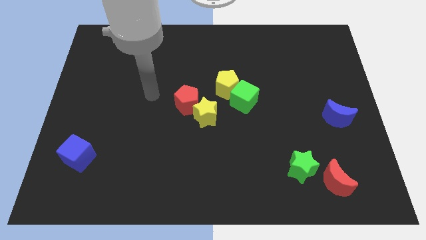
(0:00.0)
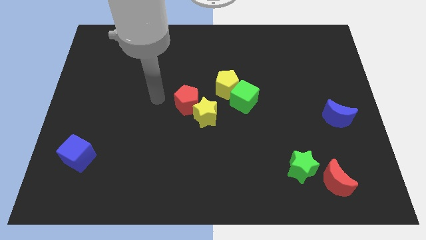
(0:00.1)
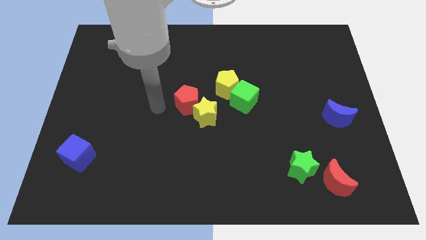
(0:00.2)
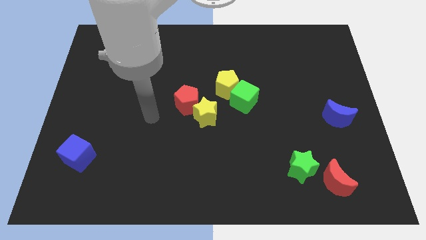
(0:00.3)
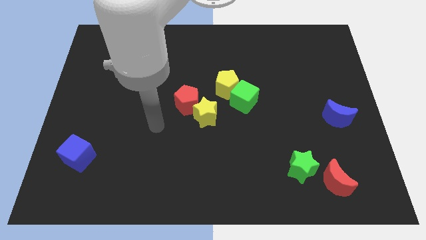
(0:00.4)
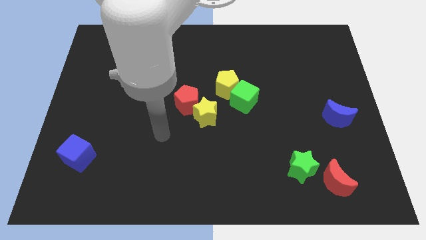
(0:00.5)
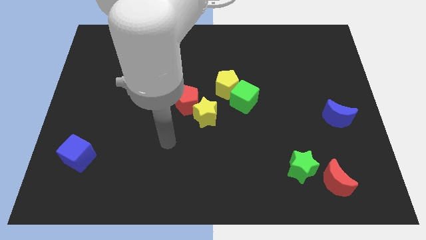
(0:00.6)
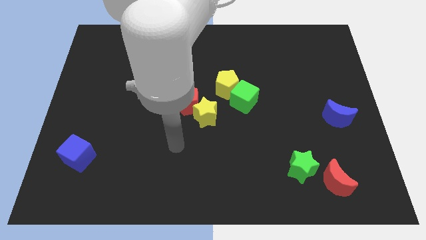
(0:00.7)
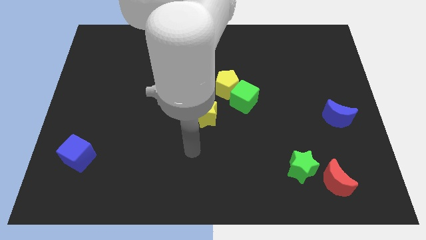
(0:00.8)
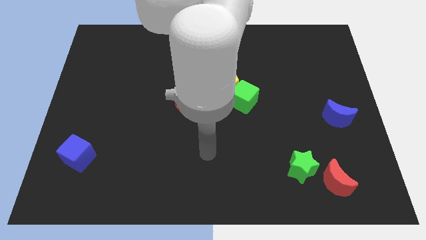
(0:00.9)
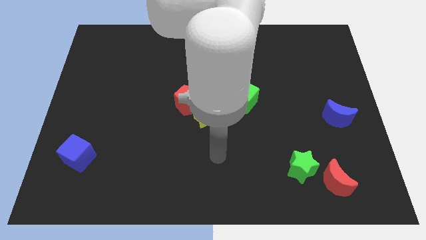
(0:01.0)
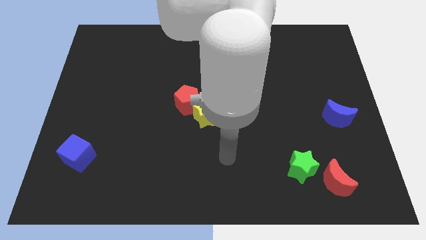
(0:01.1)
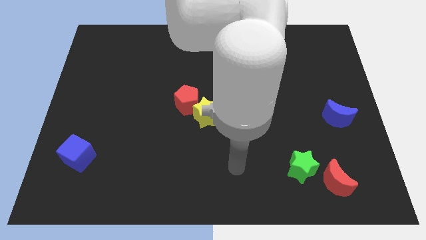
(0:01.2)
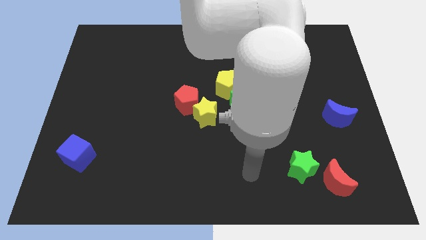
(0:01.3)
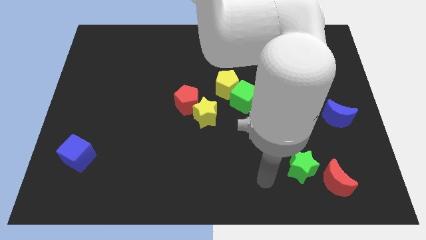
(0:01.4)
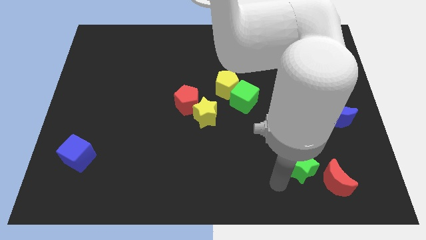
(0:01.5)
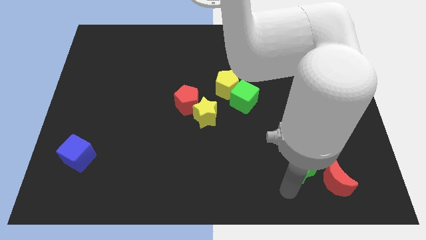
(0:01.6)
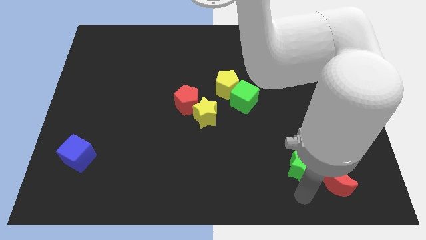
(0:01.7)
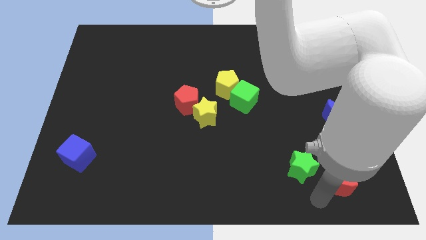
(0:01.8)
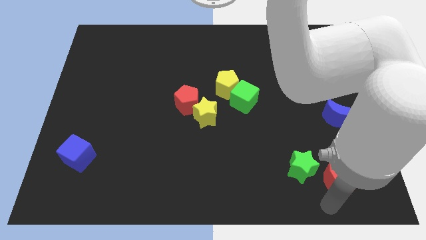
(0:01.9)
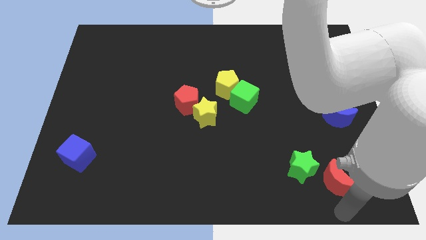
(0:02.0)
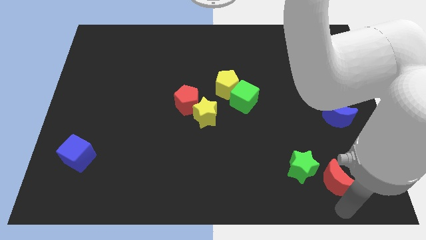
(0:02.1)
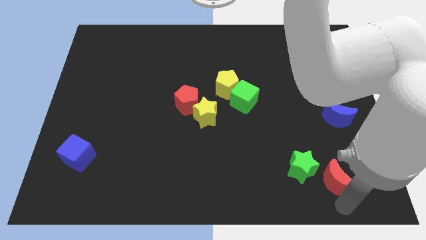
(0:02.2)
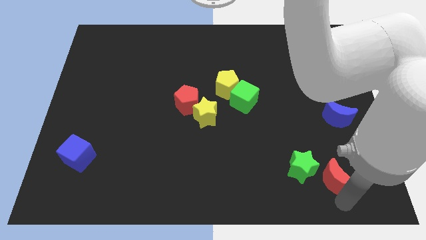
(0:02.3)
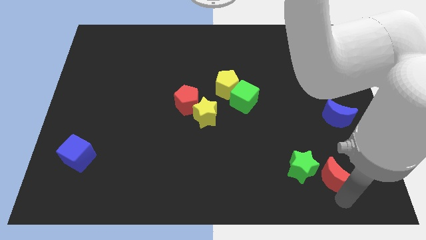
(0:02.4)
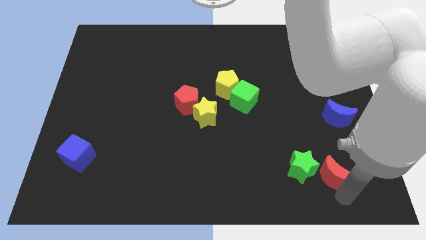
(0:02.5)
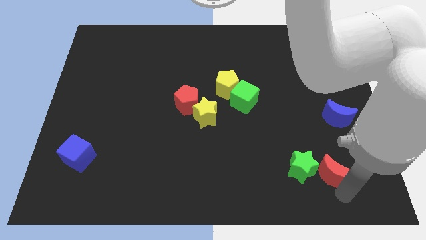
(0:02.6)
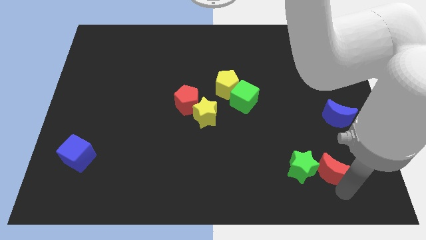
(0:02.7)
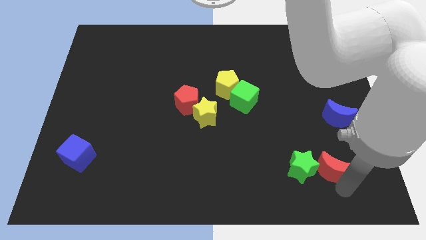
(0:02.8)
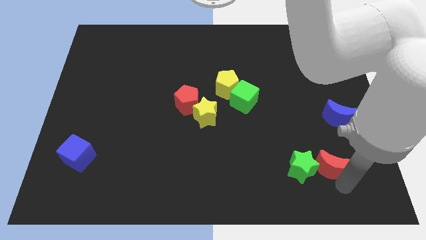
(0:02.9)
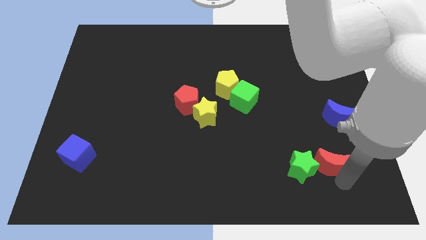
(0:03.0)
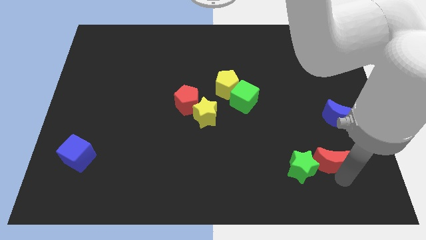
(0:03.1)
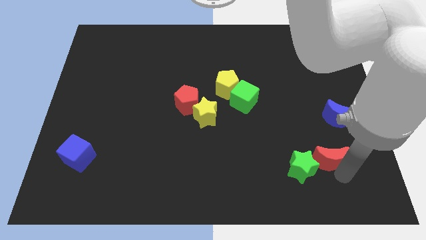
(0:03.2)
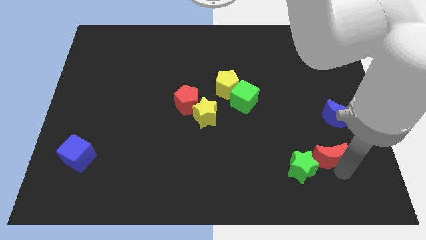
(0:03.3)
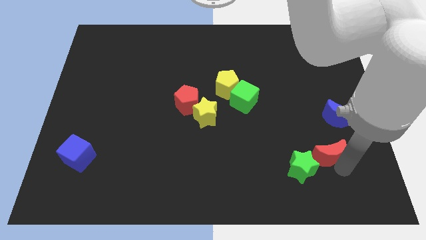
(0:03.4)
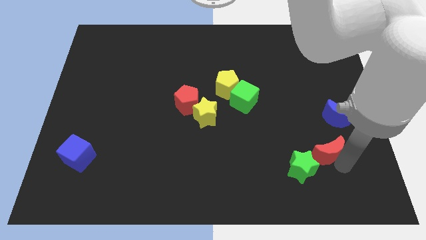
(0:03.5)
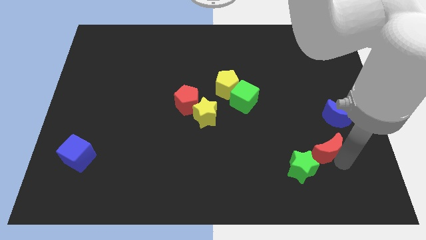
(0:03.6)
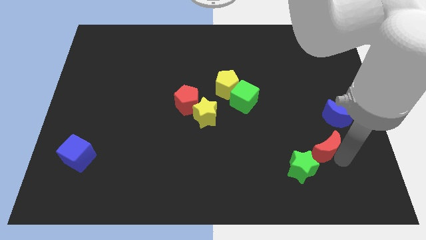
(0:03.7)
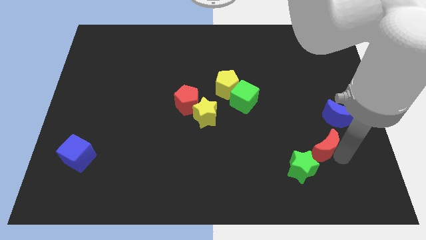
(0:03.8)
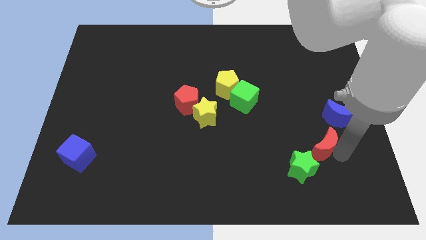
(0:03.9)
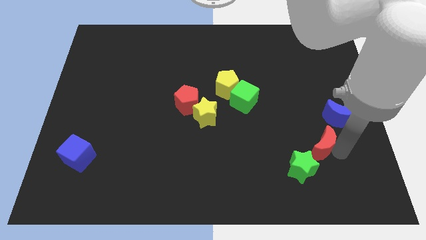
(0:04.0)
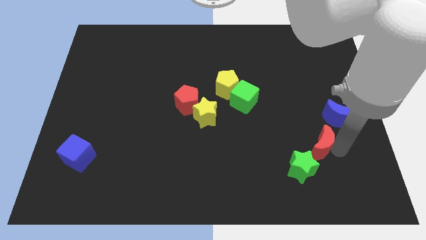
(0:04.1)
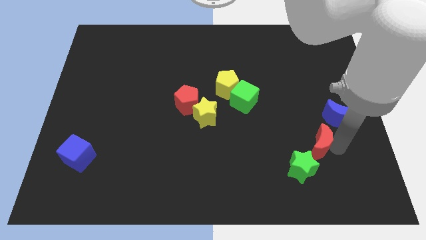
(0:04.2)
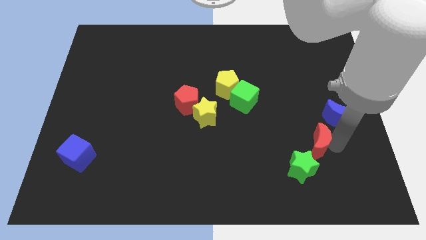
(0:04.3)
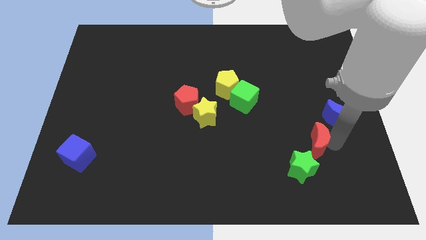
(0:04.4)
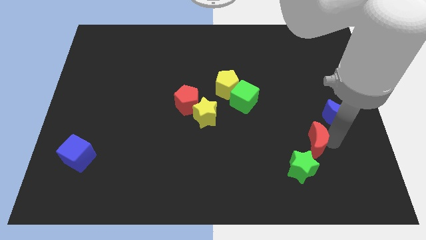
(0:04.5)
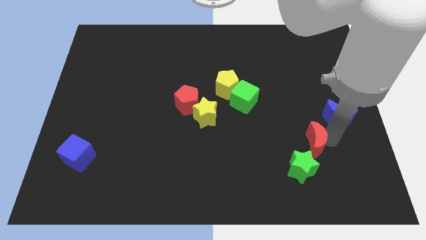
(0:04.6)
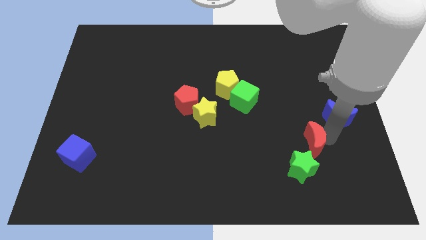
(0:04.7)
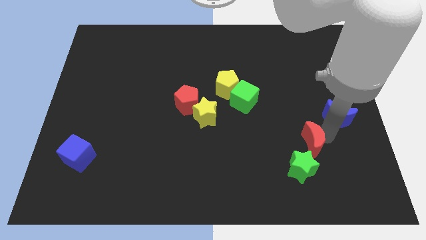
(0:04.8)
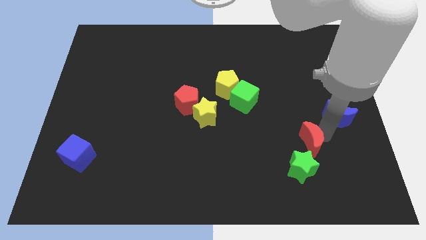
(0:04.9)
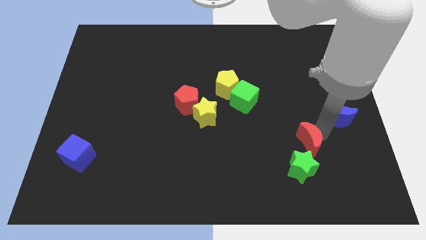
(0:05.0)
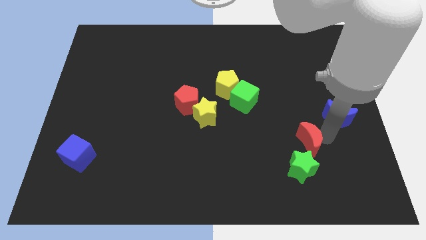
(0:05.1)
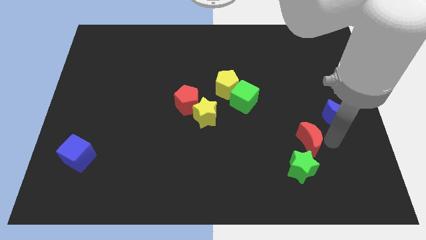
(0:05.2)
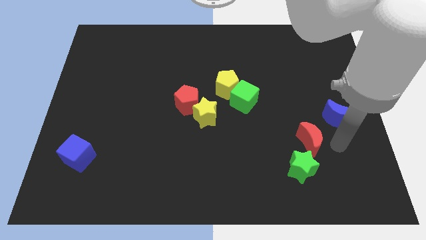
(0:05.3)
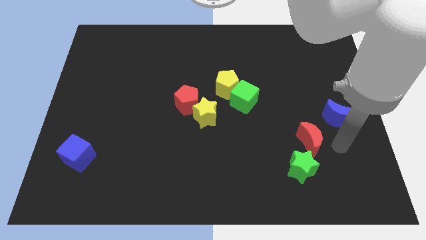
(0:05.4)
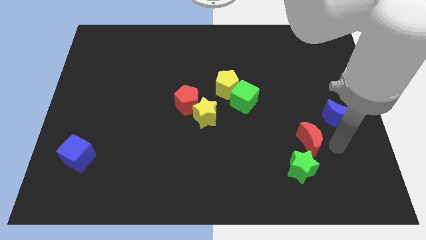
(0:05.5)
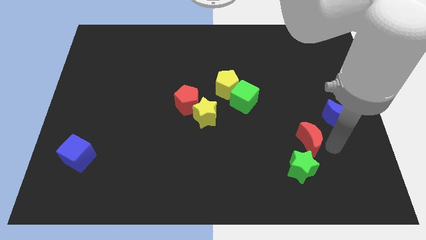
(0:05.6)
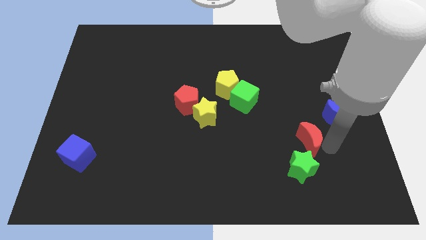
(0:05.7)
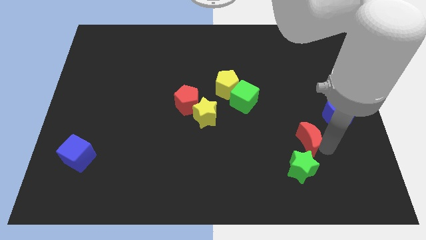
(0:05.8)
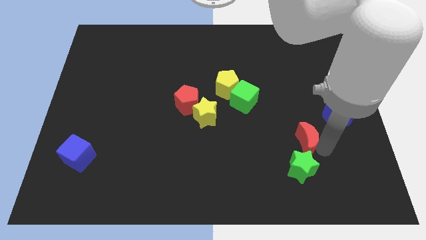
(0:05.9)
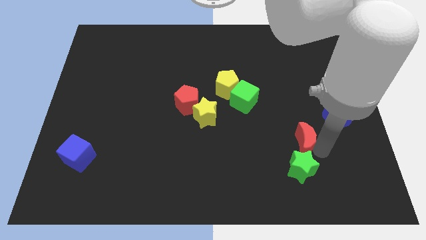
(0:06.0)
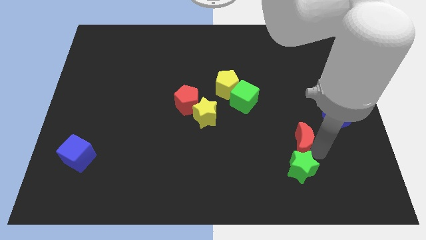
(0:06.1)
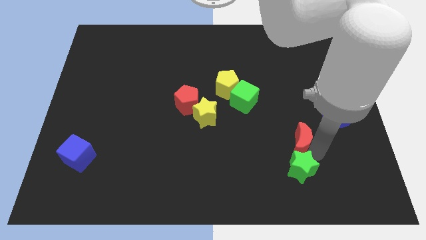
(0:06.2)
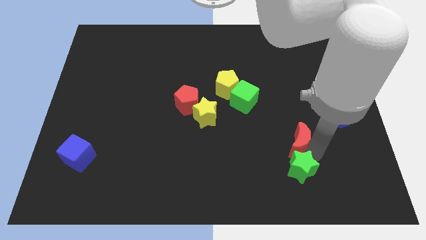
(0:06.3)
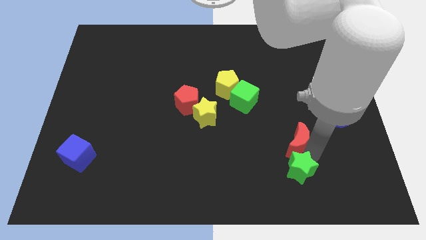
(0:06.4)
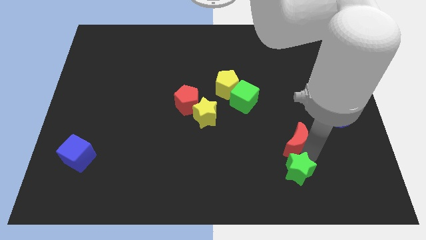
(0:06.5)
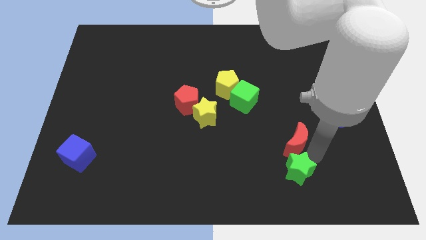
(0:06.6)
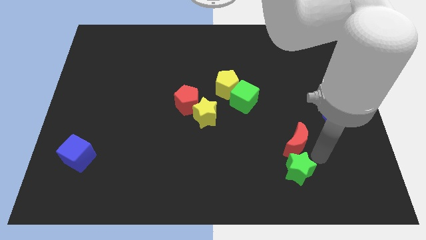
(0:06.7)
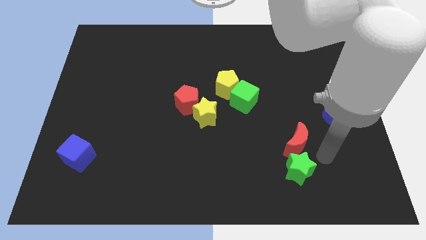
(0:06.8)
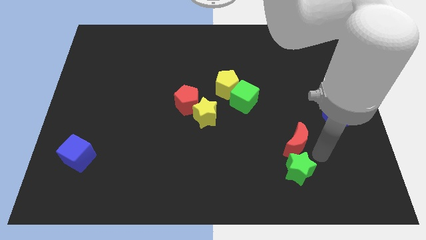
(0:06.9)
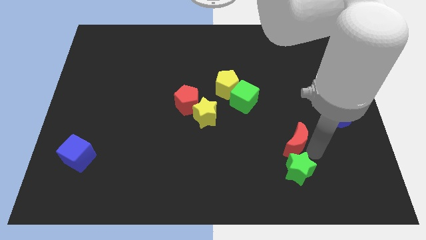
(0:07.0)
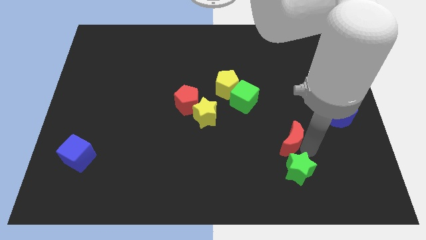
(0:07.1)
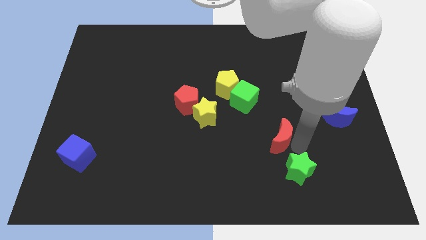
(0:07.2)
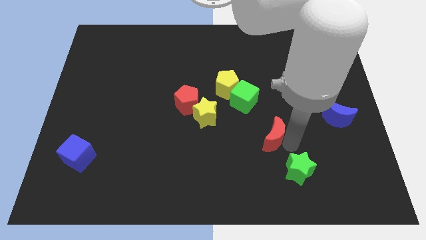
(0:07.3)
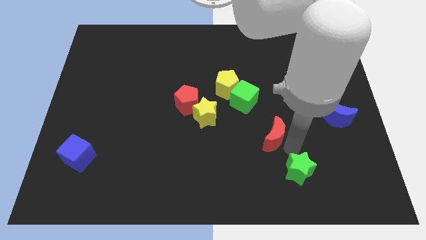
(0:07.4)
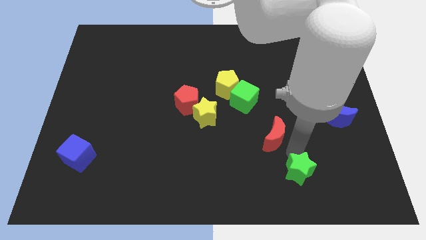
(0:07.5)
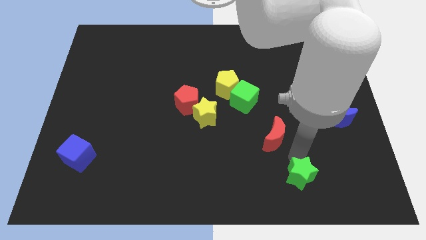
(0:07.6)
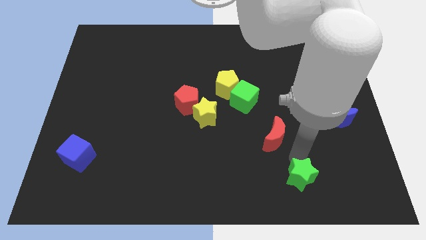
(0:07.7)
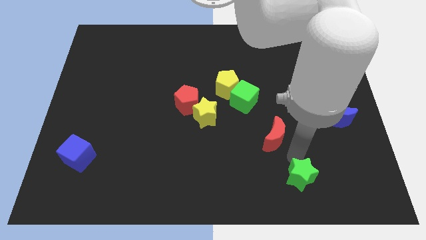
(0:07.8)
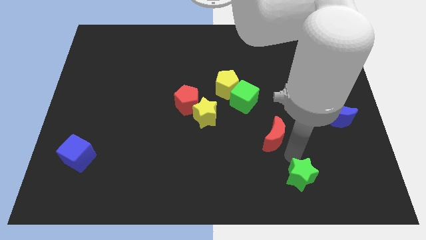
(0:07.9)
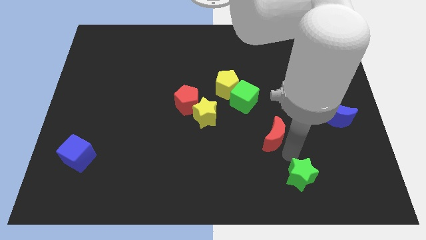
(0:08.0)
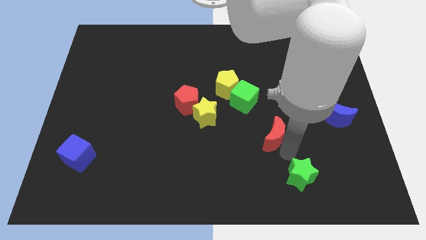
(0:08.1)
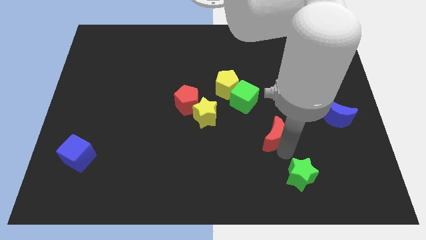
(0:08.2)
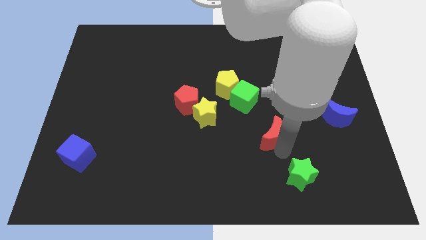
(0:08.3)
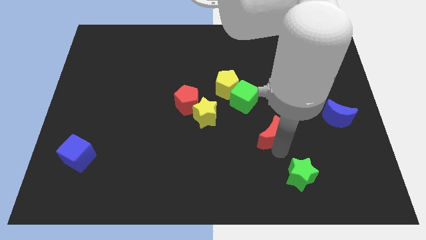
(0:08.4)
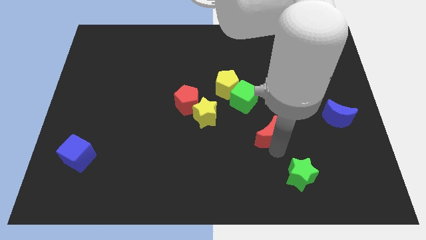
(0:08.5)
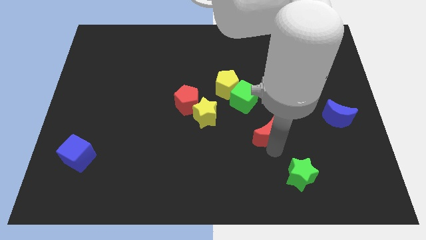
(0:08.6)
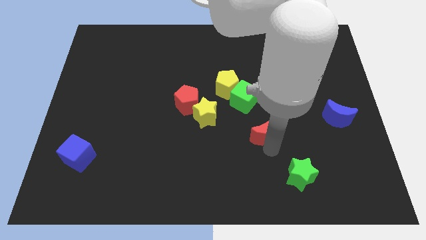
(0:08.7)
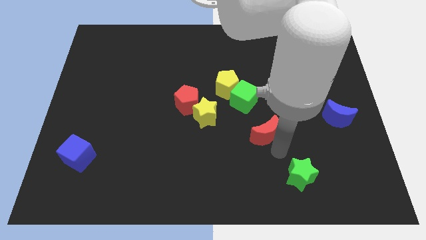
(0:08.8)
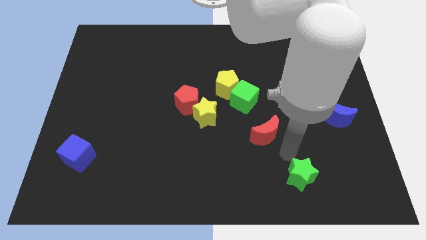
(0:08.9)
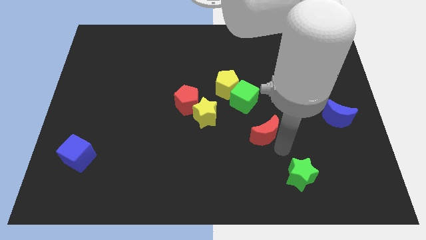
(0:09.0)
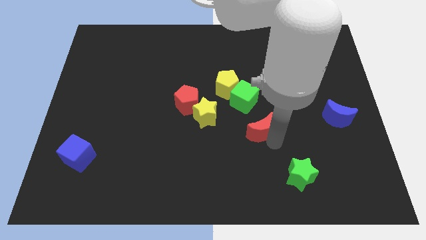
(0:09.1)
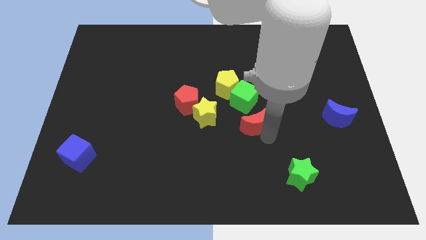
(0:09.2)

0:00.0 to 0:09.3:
push the red moon to the center
